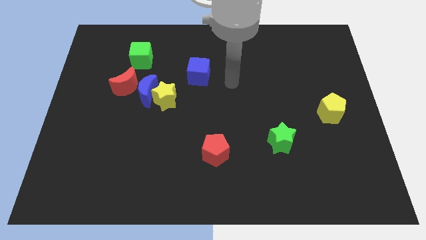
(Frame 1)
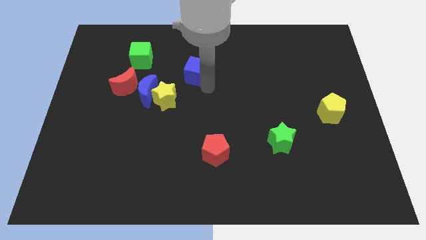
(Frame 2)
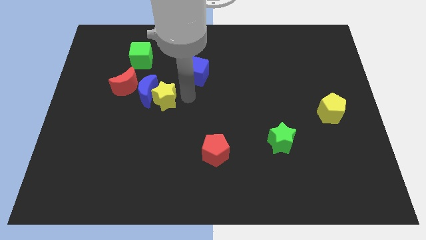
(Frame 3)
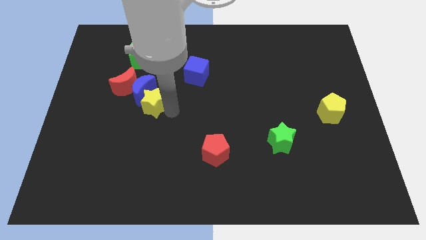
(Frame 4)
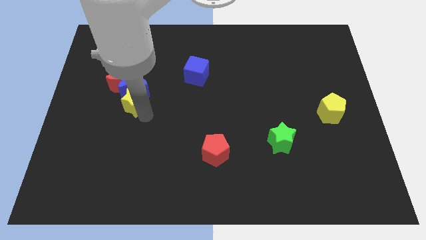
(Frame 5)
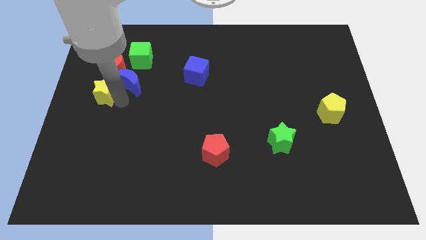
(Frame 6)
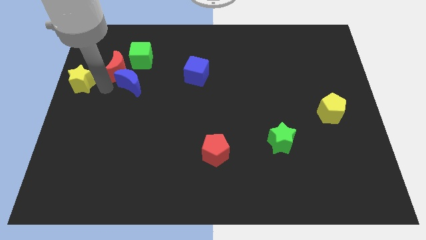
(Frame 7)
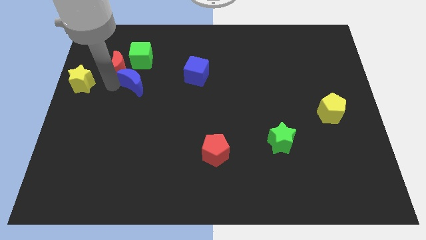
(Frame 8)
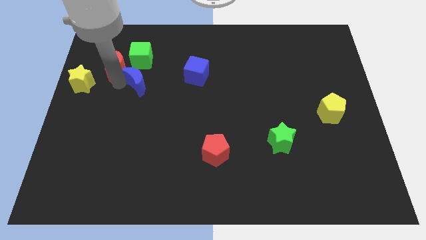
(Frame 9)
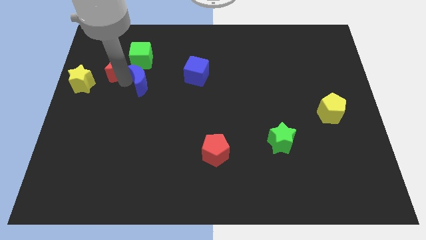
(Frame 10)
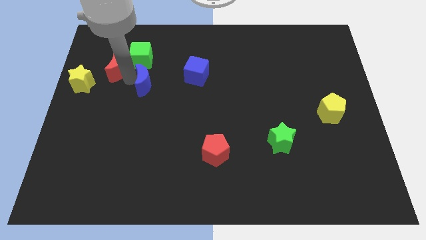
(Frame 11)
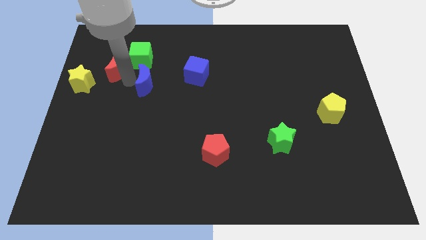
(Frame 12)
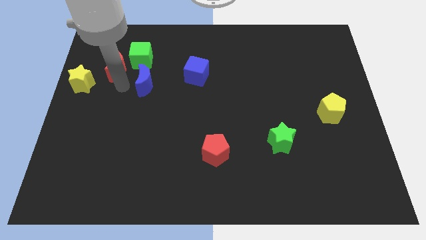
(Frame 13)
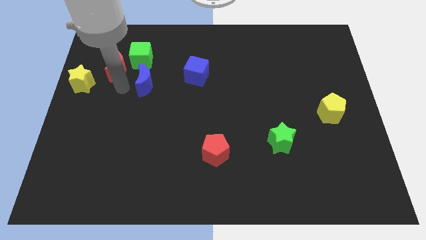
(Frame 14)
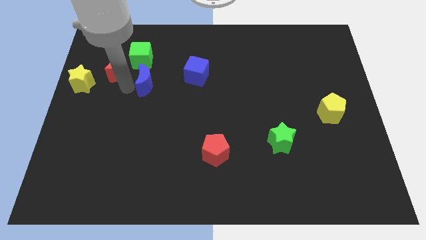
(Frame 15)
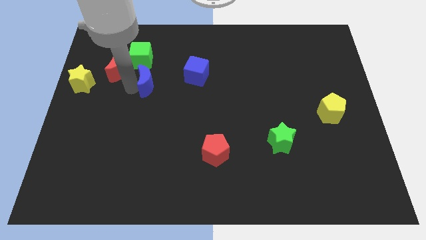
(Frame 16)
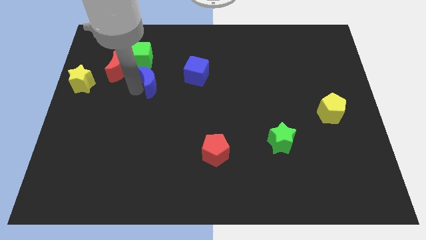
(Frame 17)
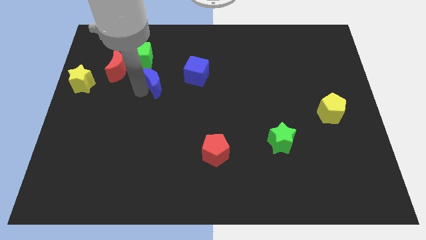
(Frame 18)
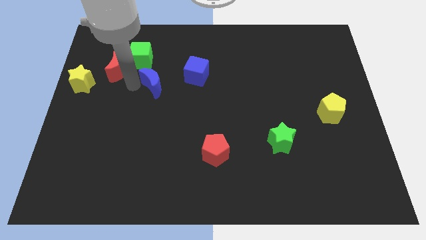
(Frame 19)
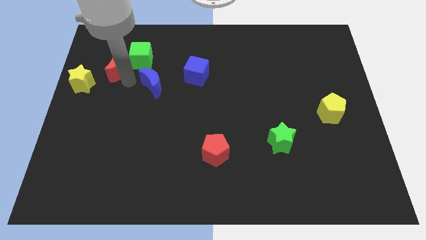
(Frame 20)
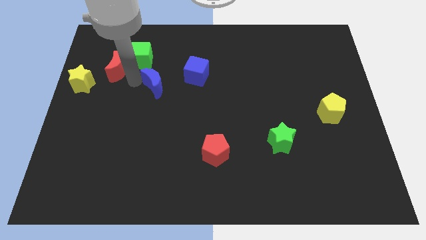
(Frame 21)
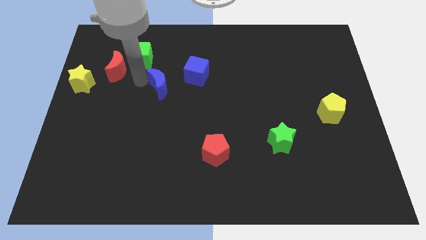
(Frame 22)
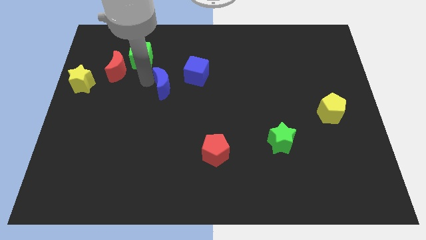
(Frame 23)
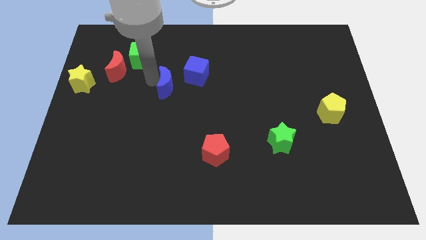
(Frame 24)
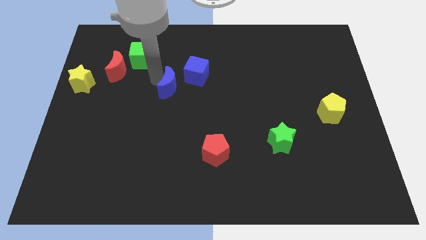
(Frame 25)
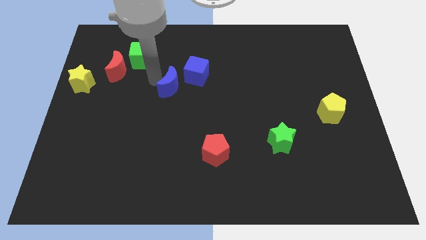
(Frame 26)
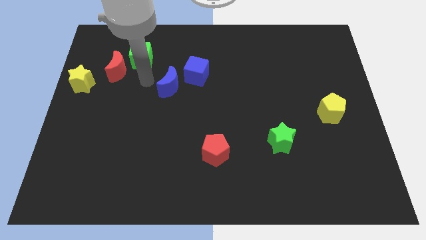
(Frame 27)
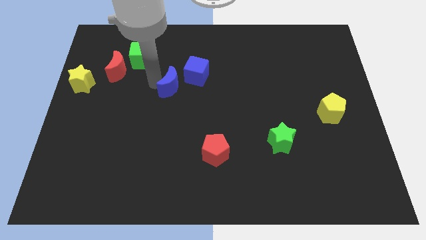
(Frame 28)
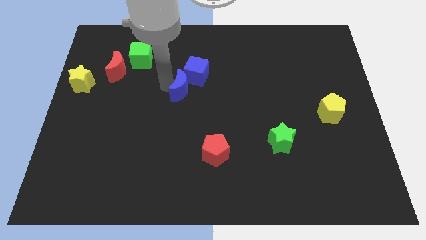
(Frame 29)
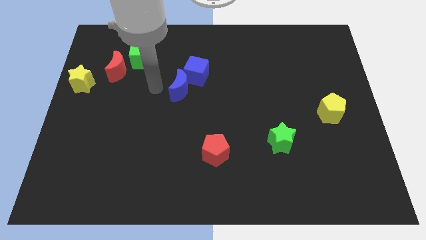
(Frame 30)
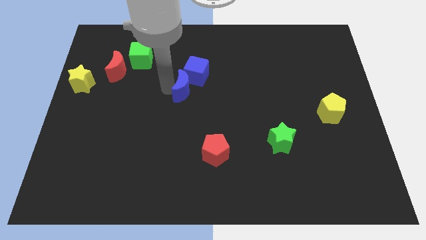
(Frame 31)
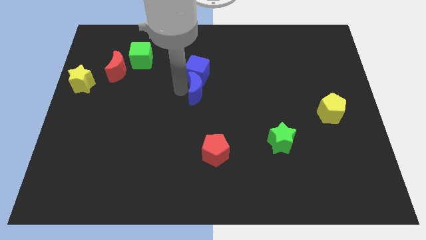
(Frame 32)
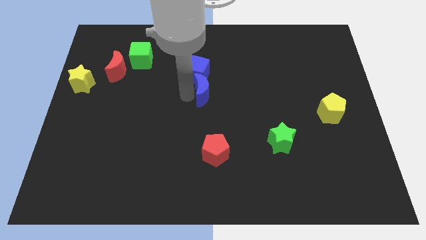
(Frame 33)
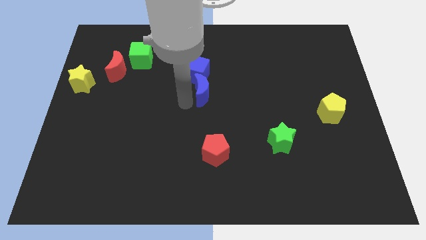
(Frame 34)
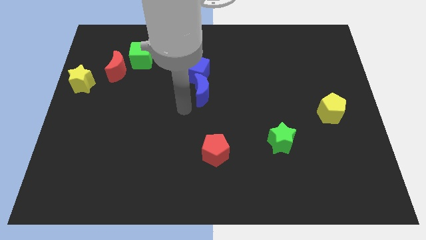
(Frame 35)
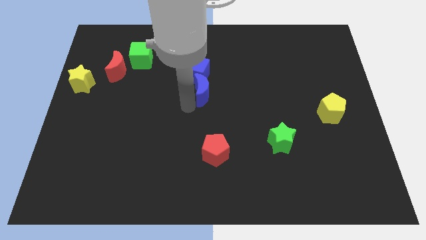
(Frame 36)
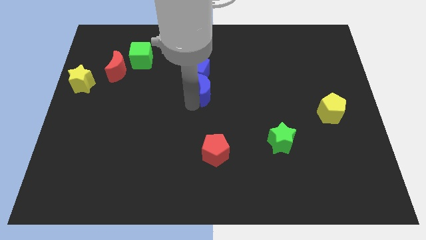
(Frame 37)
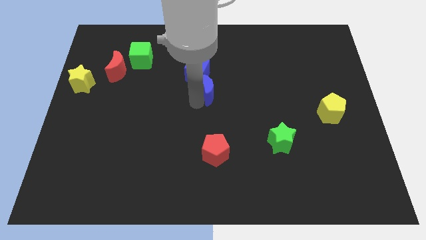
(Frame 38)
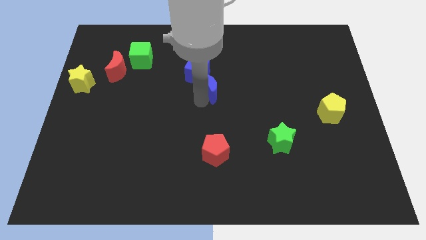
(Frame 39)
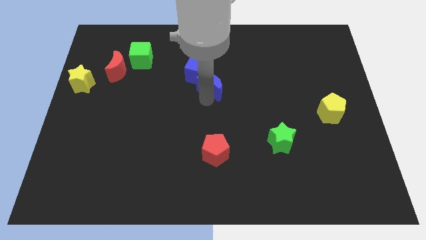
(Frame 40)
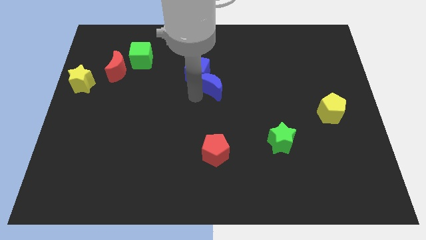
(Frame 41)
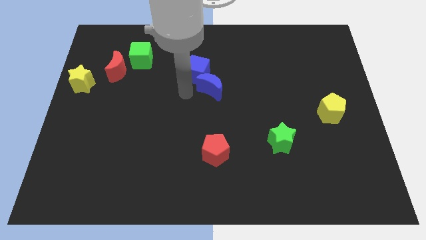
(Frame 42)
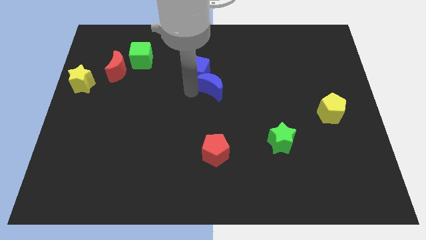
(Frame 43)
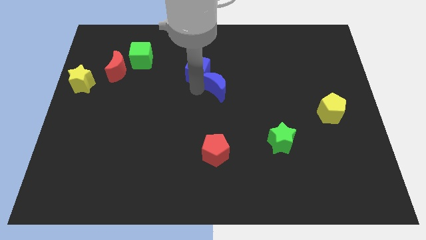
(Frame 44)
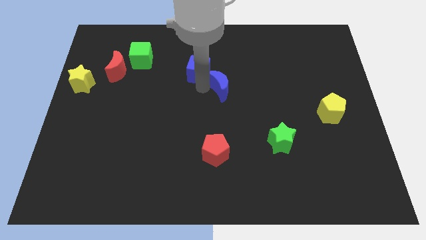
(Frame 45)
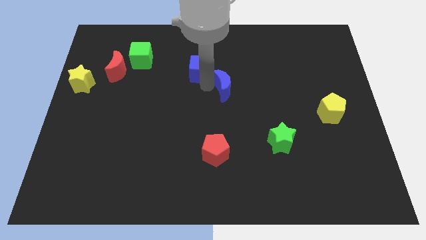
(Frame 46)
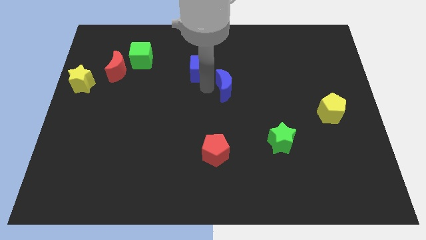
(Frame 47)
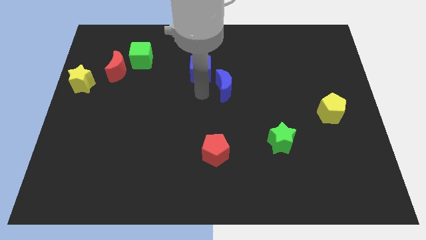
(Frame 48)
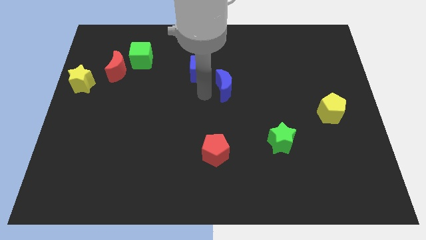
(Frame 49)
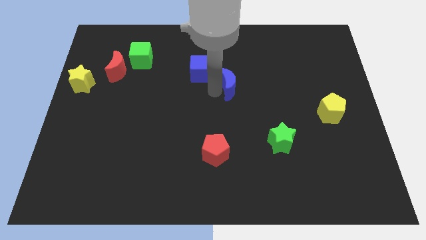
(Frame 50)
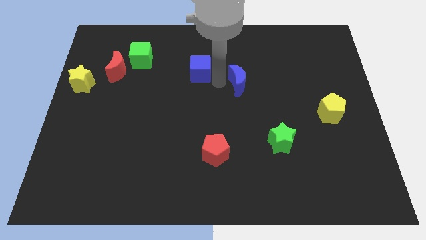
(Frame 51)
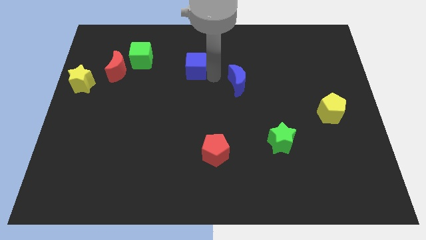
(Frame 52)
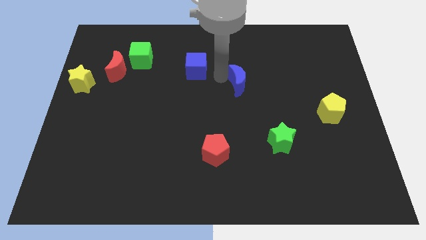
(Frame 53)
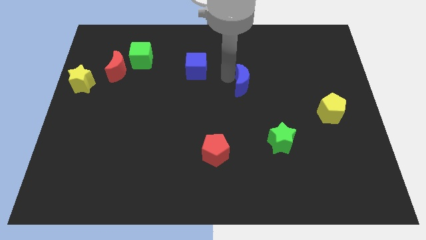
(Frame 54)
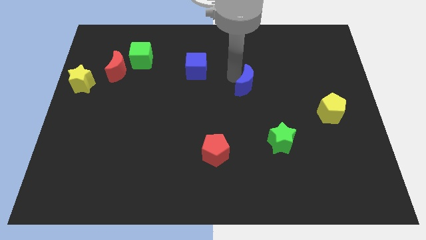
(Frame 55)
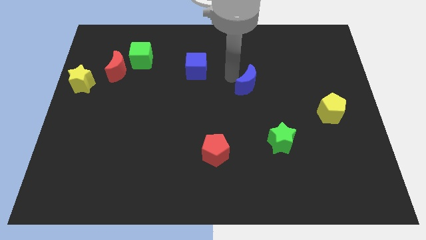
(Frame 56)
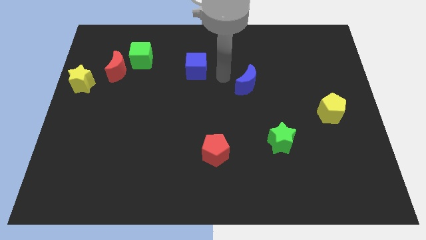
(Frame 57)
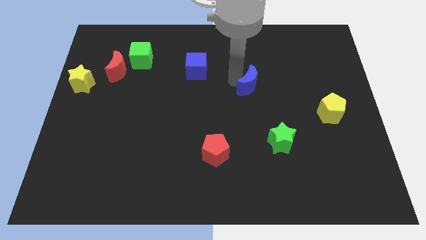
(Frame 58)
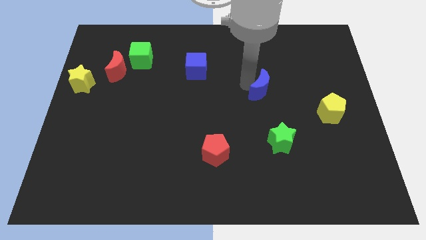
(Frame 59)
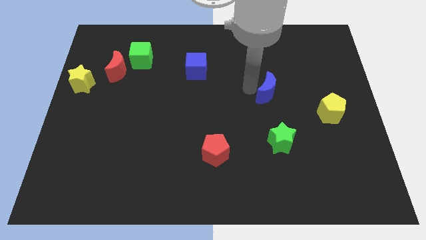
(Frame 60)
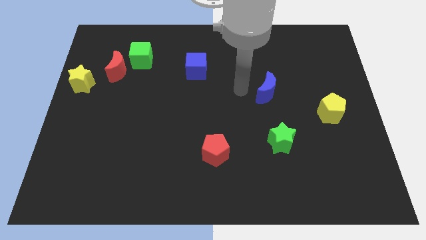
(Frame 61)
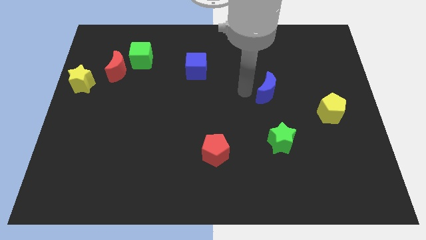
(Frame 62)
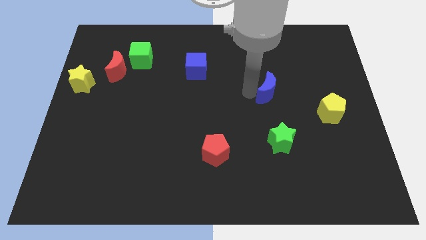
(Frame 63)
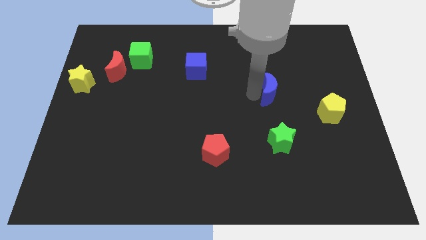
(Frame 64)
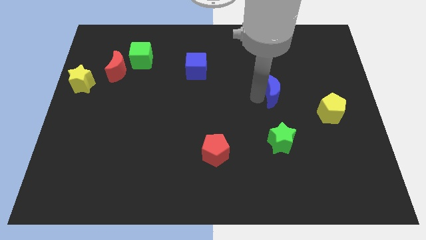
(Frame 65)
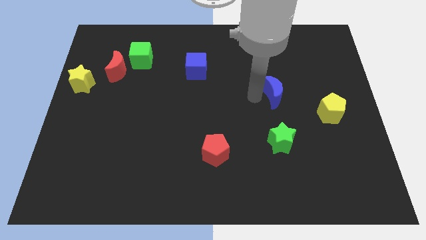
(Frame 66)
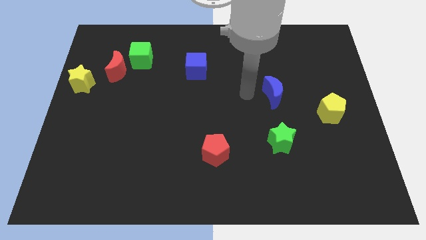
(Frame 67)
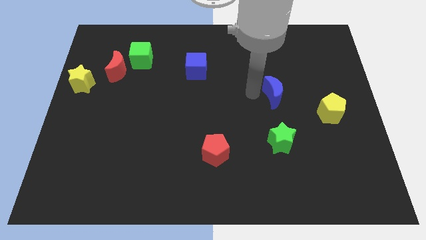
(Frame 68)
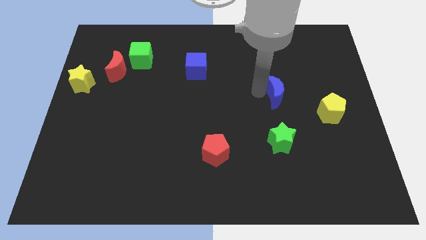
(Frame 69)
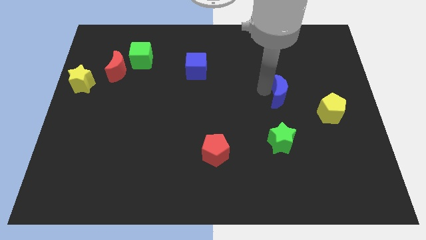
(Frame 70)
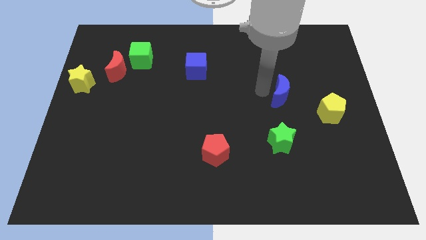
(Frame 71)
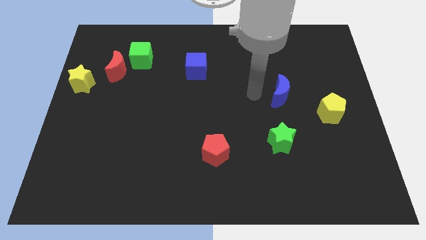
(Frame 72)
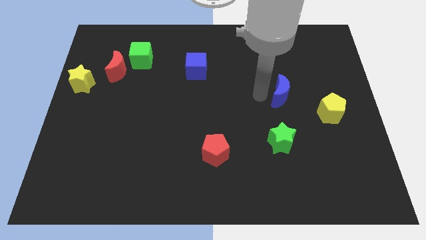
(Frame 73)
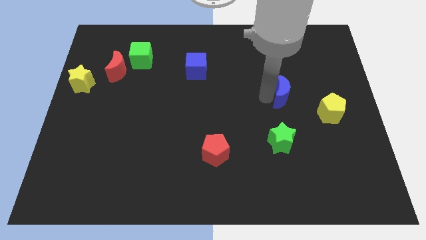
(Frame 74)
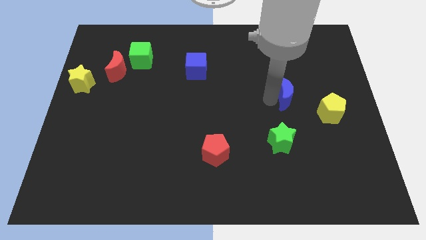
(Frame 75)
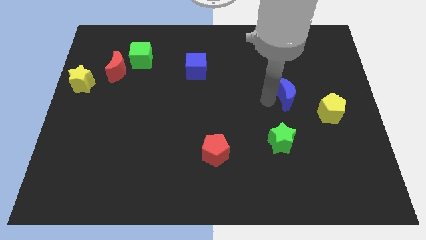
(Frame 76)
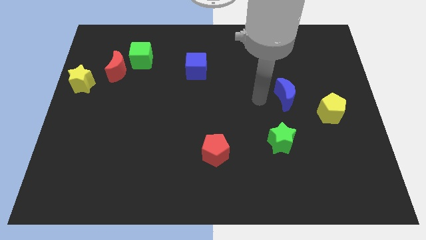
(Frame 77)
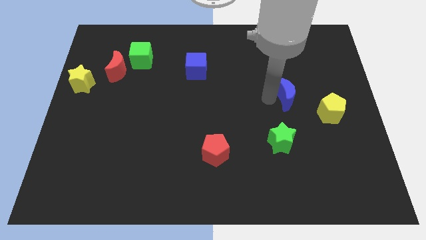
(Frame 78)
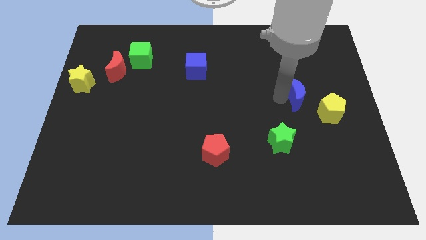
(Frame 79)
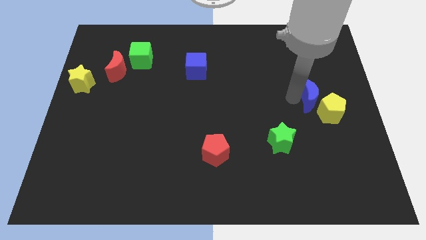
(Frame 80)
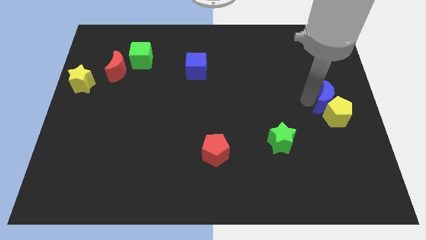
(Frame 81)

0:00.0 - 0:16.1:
move the blue moon to the right side
